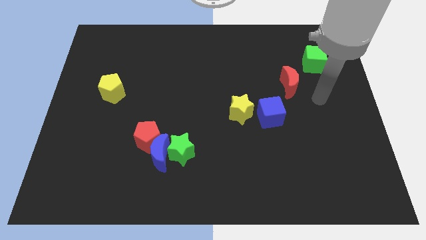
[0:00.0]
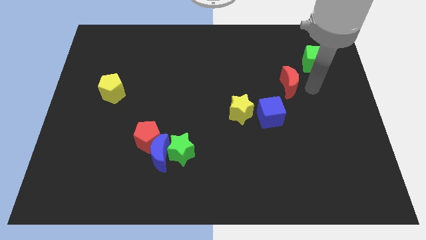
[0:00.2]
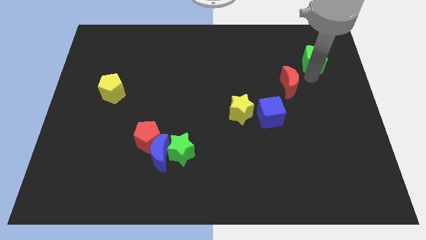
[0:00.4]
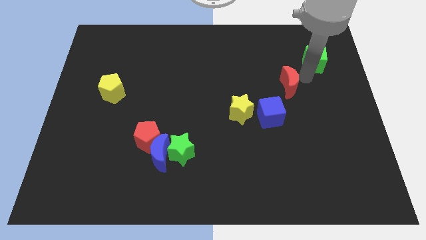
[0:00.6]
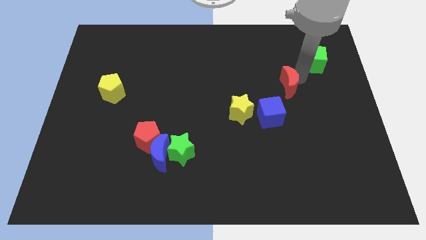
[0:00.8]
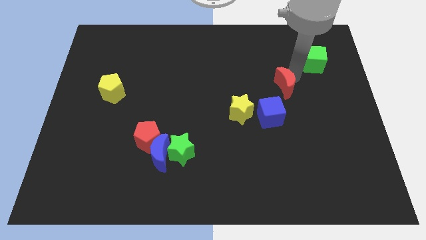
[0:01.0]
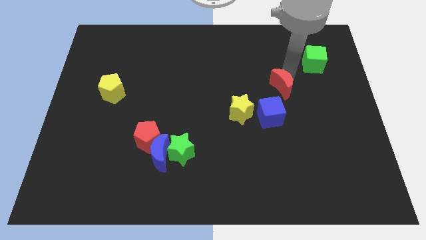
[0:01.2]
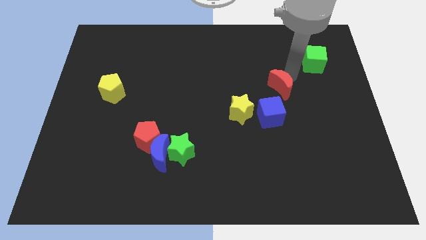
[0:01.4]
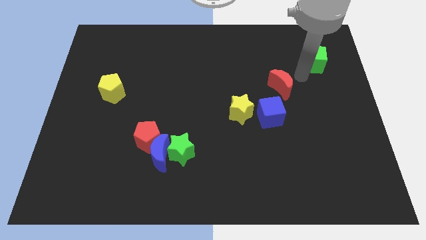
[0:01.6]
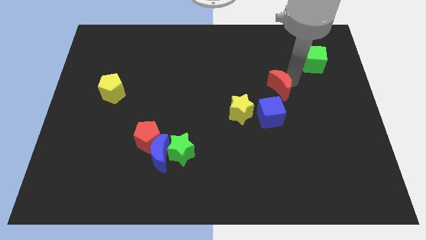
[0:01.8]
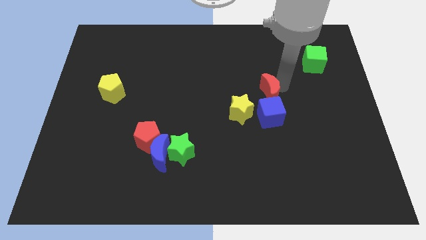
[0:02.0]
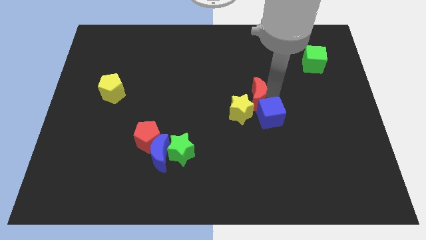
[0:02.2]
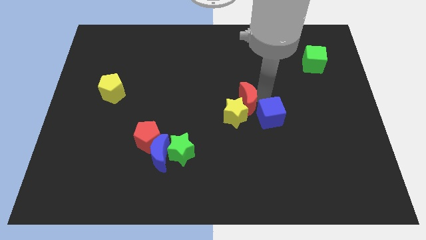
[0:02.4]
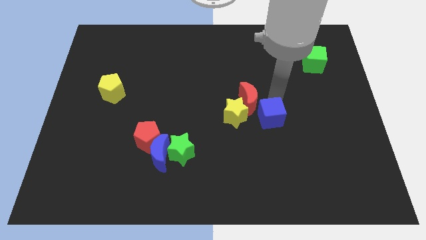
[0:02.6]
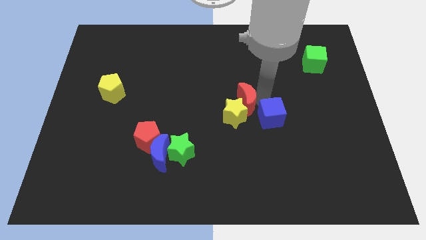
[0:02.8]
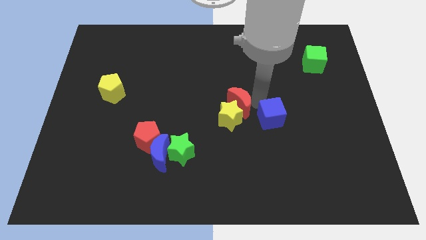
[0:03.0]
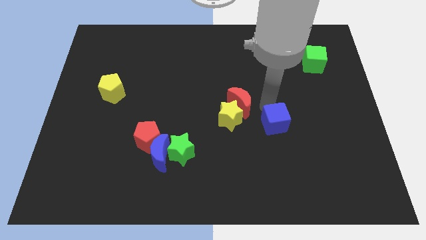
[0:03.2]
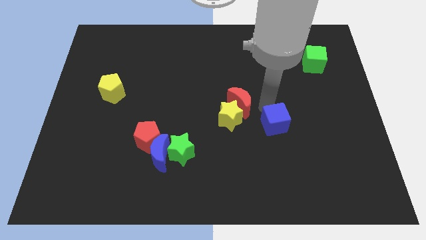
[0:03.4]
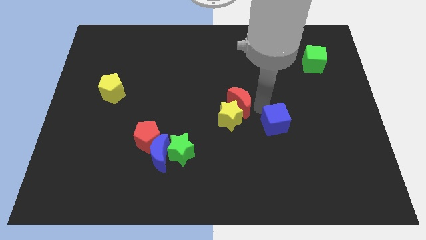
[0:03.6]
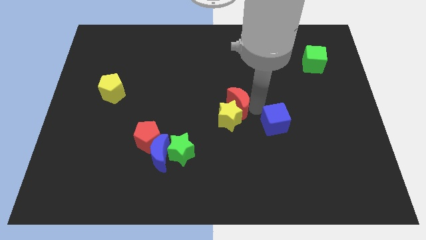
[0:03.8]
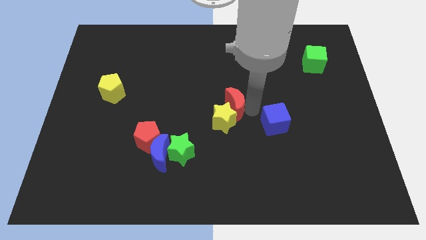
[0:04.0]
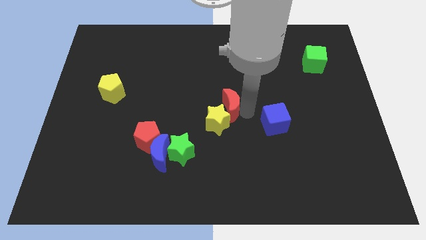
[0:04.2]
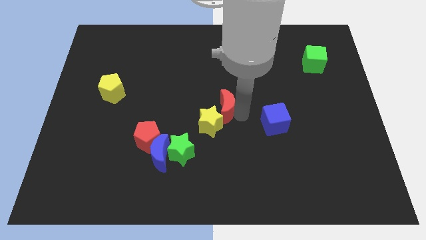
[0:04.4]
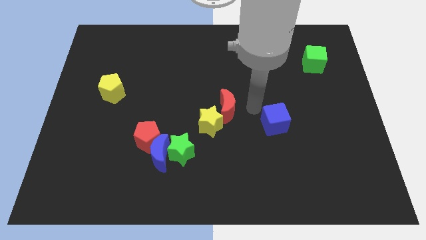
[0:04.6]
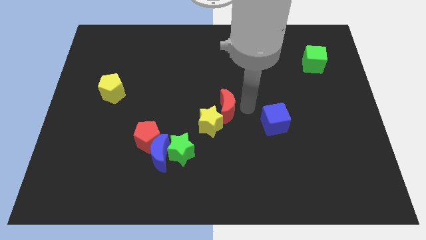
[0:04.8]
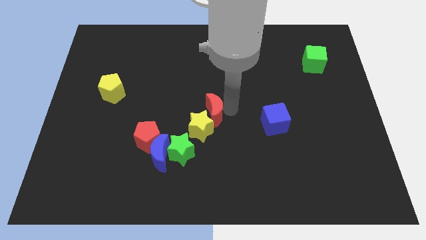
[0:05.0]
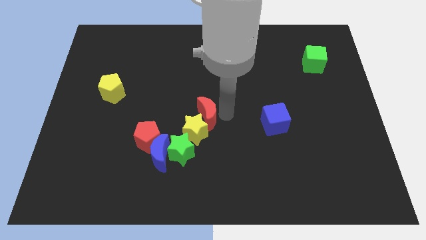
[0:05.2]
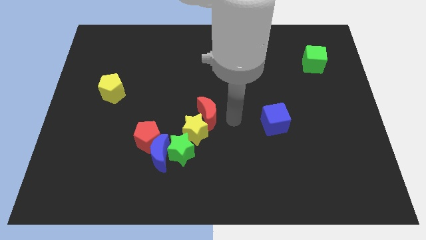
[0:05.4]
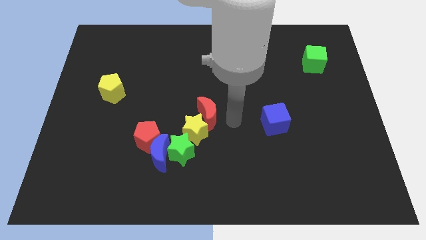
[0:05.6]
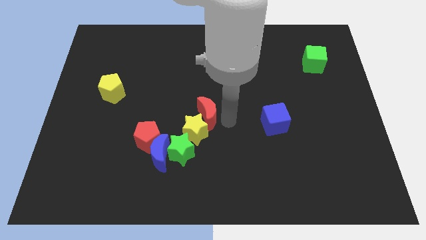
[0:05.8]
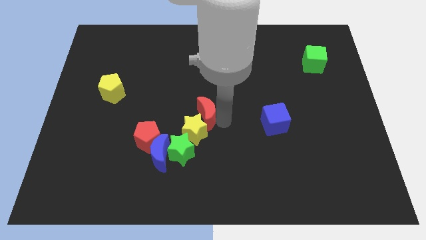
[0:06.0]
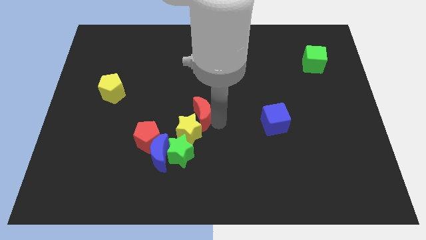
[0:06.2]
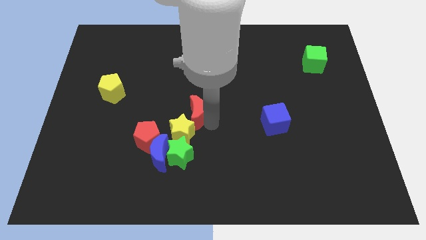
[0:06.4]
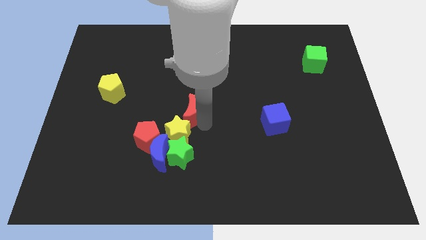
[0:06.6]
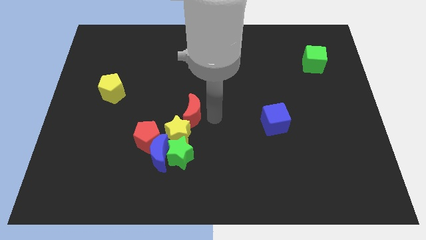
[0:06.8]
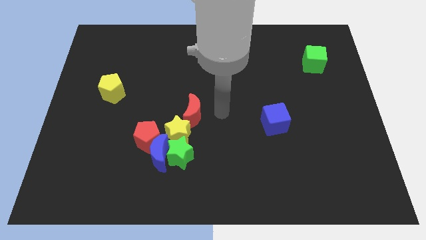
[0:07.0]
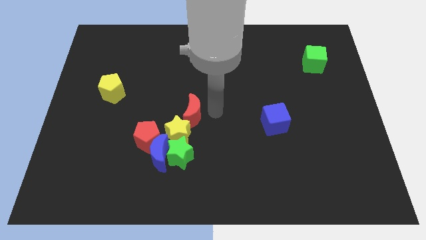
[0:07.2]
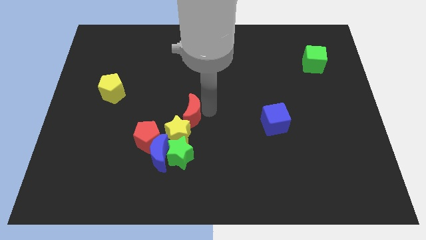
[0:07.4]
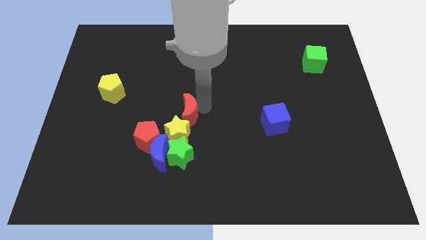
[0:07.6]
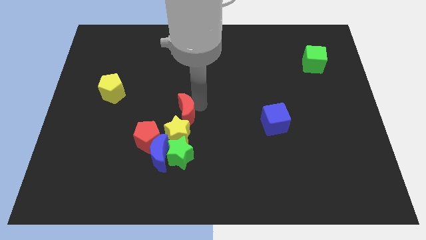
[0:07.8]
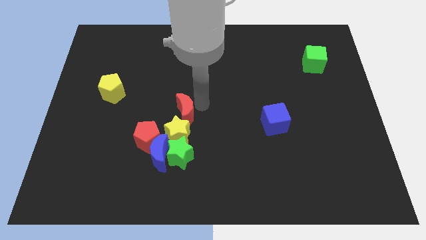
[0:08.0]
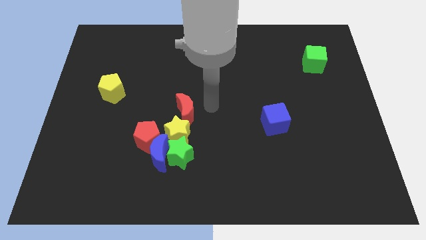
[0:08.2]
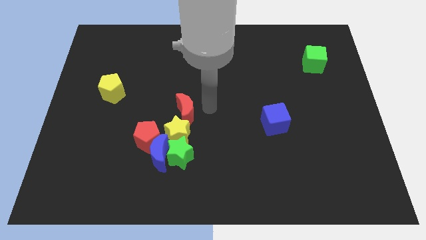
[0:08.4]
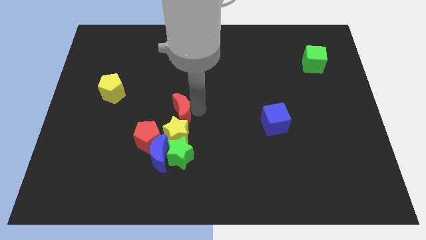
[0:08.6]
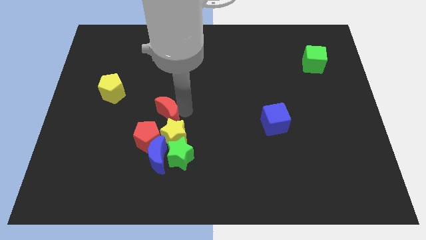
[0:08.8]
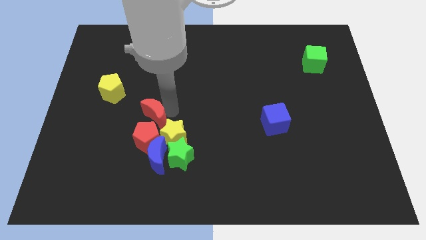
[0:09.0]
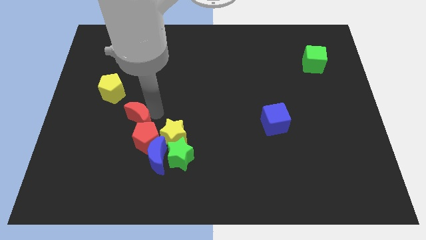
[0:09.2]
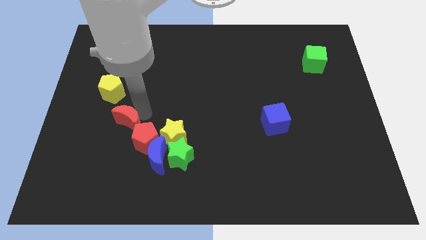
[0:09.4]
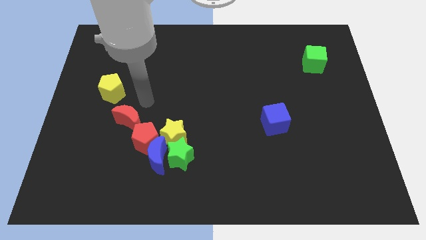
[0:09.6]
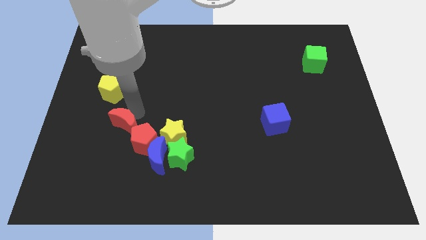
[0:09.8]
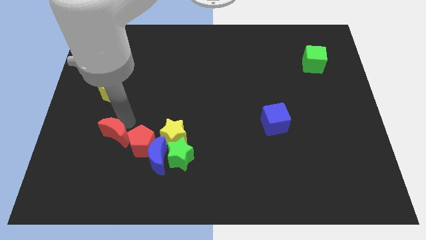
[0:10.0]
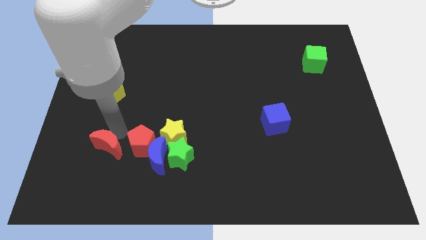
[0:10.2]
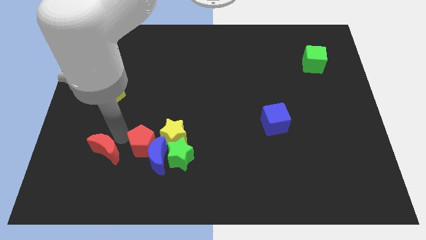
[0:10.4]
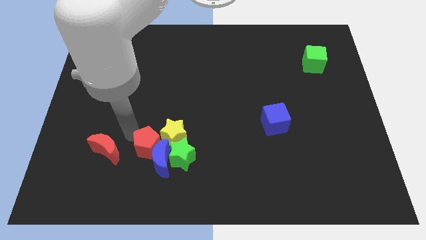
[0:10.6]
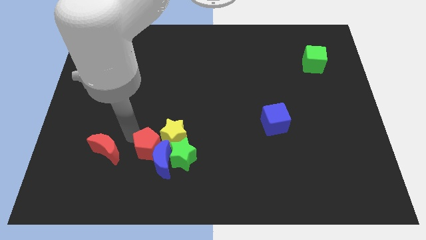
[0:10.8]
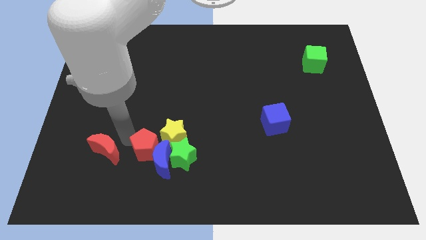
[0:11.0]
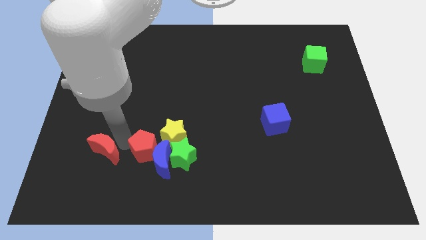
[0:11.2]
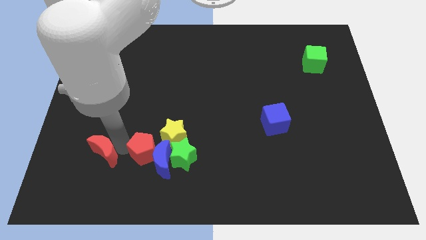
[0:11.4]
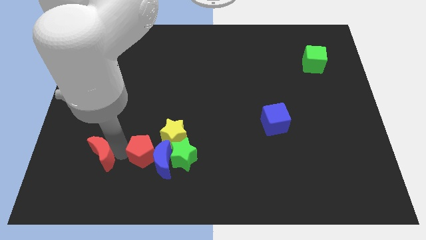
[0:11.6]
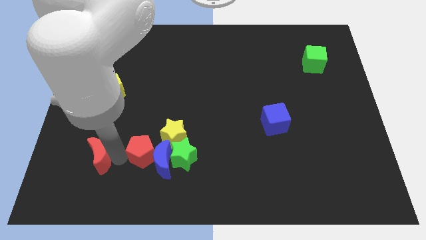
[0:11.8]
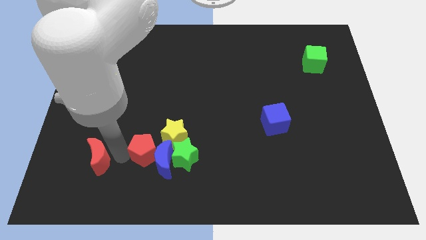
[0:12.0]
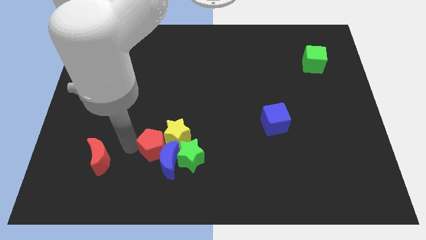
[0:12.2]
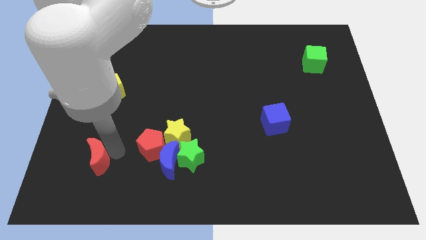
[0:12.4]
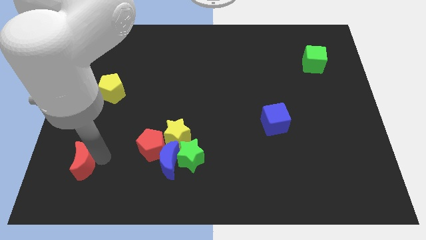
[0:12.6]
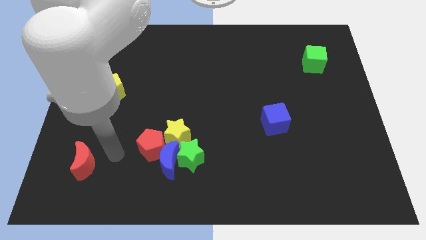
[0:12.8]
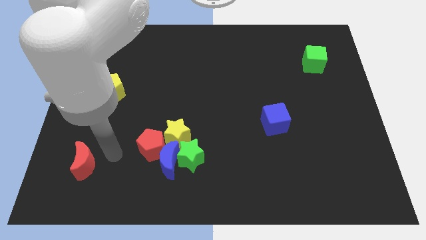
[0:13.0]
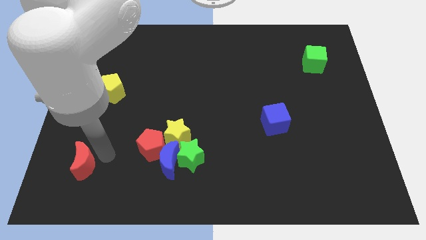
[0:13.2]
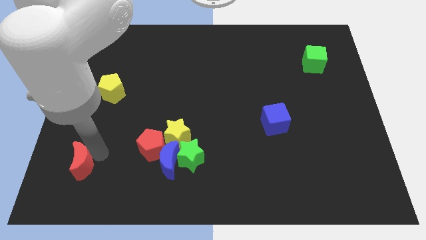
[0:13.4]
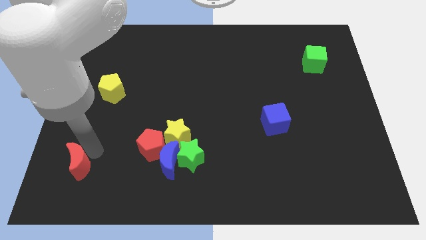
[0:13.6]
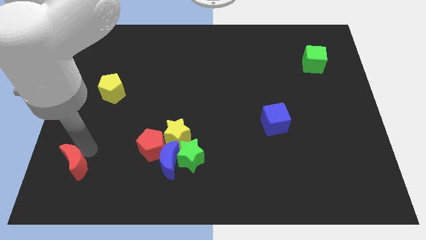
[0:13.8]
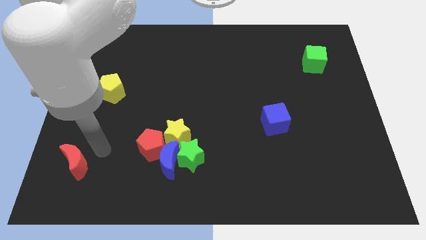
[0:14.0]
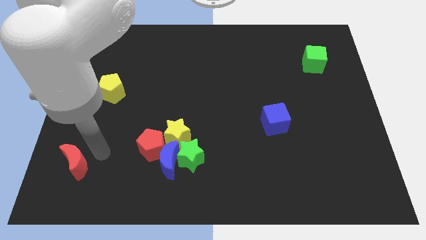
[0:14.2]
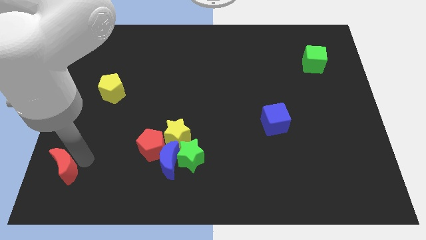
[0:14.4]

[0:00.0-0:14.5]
slide the red moon to the lower left corner

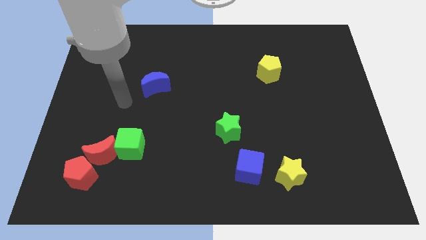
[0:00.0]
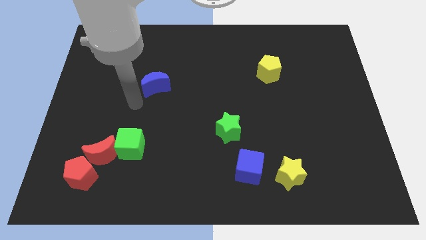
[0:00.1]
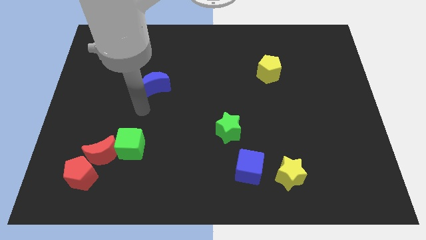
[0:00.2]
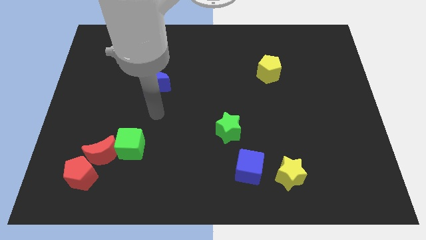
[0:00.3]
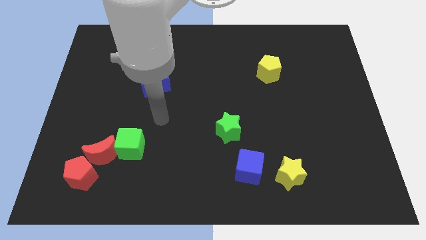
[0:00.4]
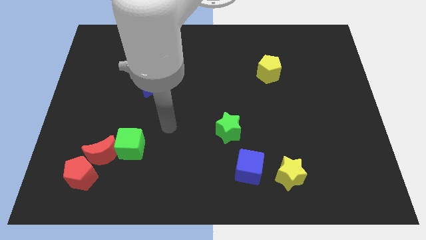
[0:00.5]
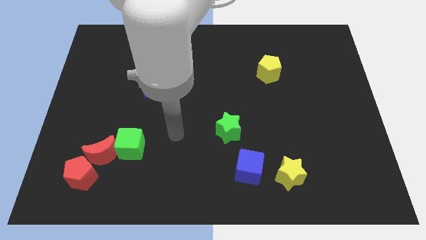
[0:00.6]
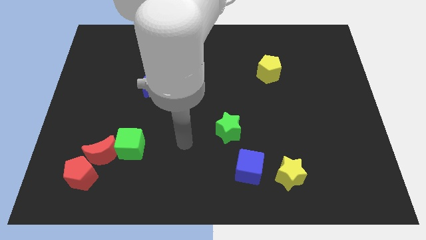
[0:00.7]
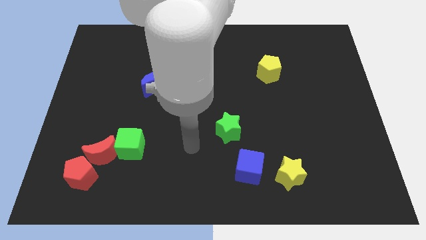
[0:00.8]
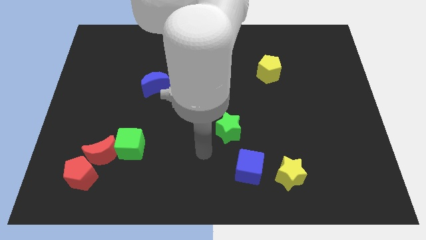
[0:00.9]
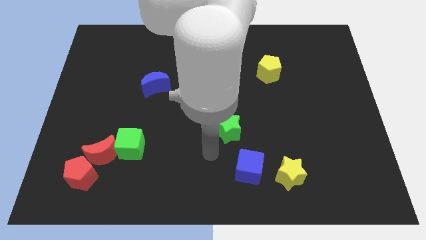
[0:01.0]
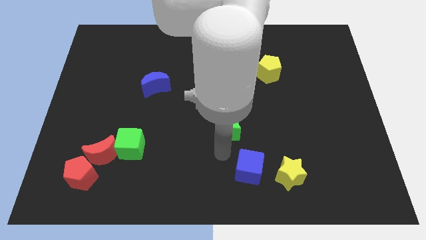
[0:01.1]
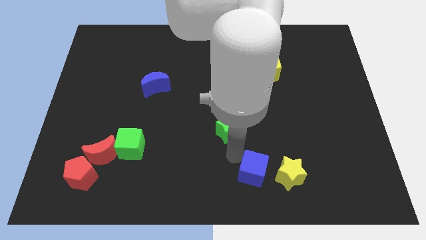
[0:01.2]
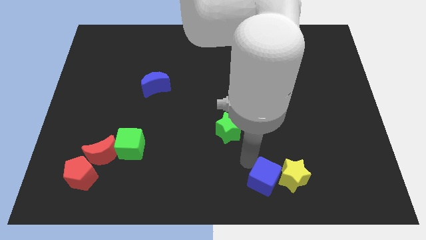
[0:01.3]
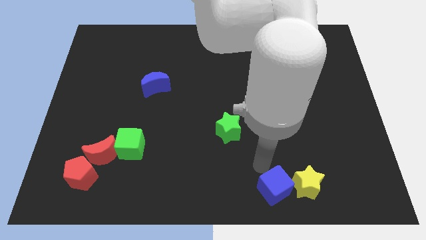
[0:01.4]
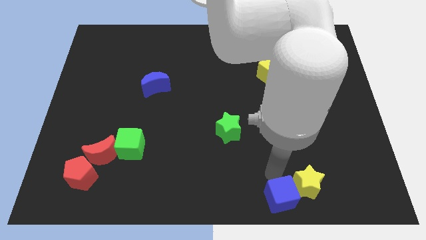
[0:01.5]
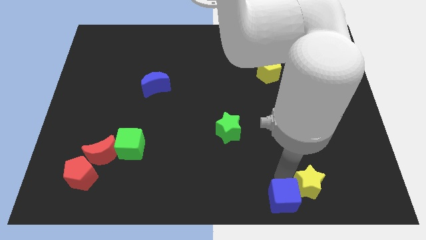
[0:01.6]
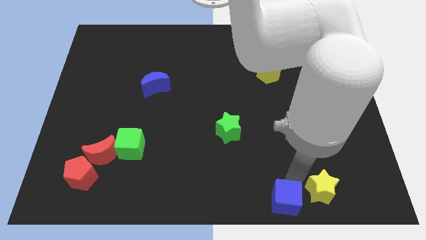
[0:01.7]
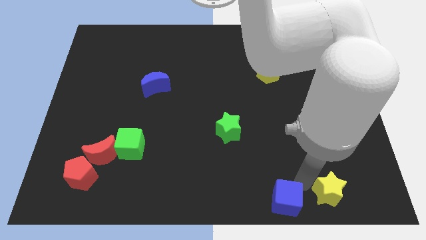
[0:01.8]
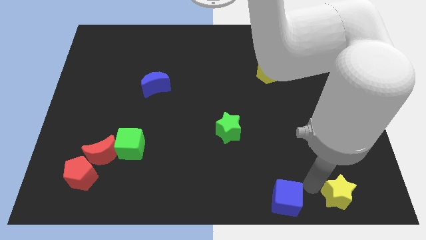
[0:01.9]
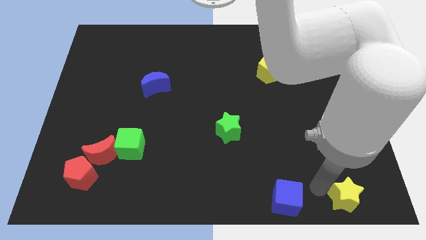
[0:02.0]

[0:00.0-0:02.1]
put the yellow star to the bottom right of the board
